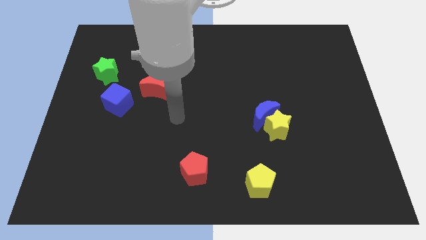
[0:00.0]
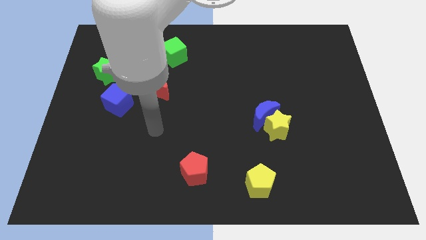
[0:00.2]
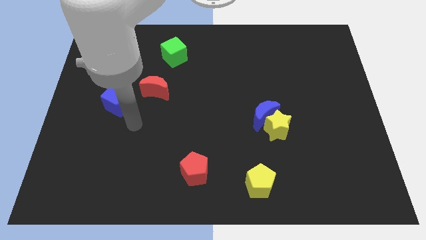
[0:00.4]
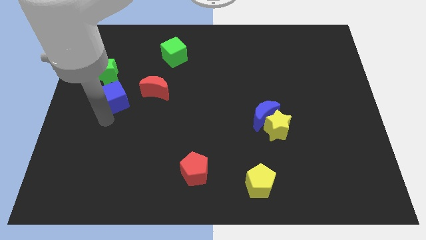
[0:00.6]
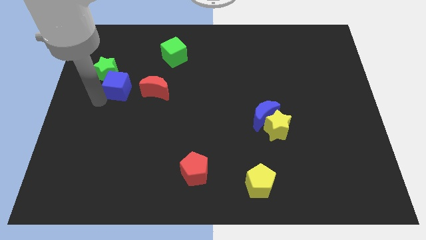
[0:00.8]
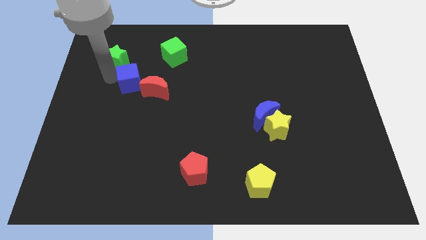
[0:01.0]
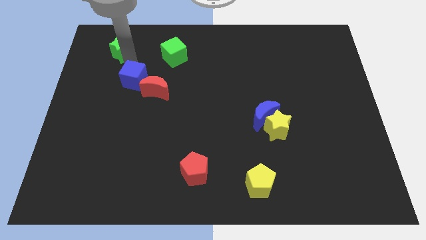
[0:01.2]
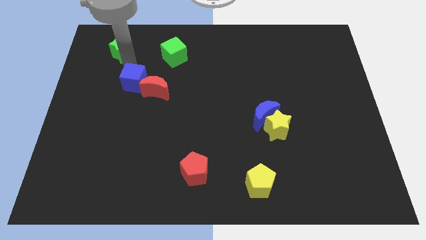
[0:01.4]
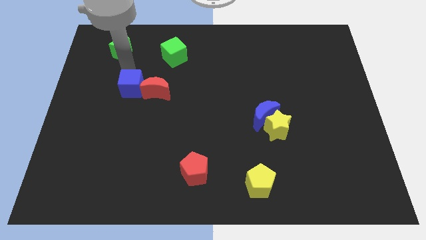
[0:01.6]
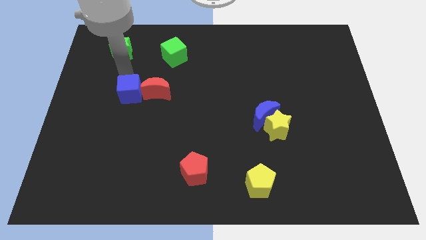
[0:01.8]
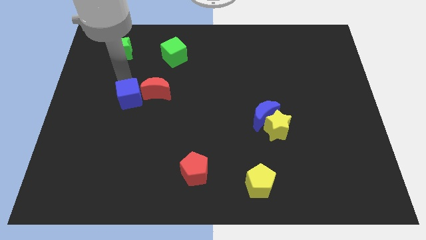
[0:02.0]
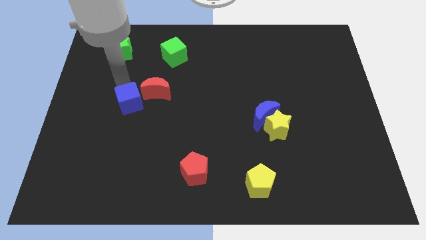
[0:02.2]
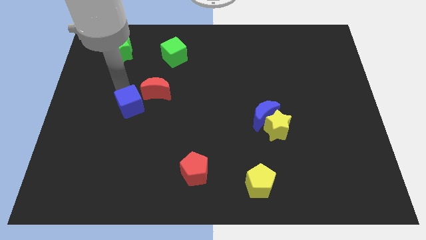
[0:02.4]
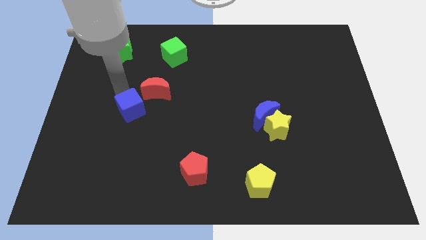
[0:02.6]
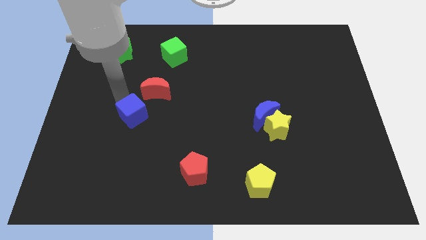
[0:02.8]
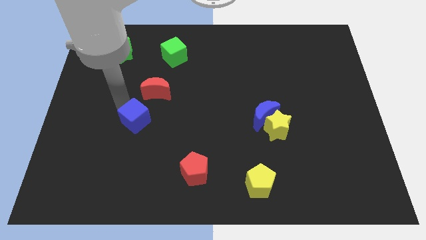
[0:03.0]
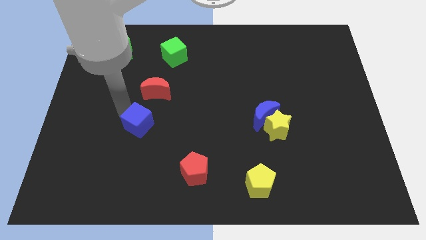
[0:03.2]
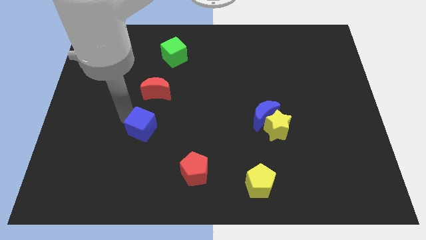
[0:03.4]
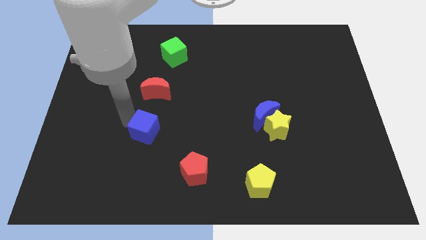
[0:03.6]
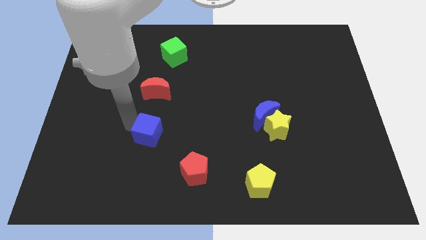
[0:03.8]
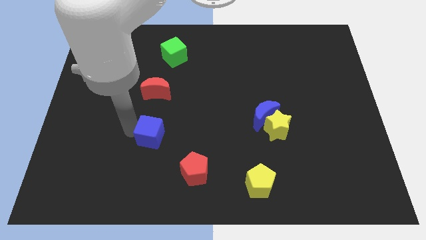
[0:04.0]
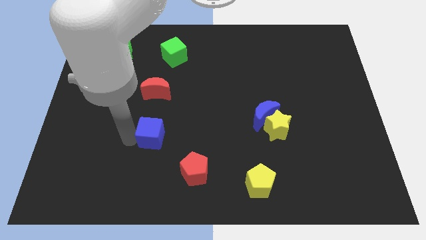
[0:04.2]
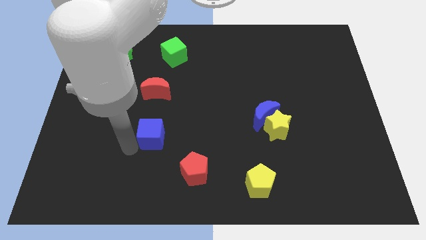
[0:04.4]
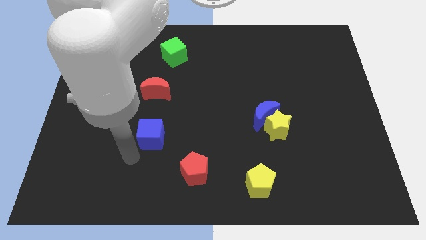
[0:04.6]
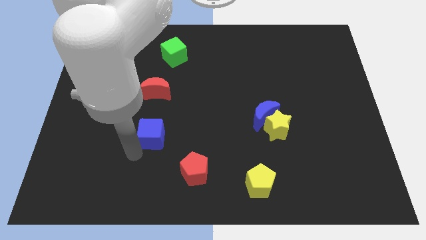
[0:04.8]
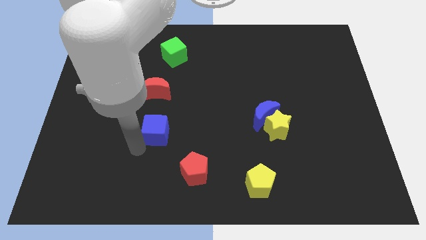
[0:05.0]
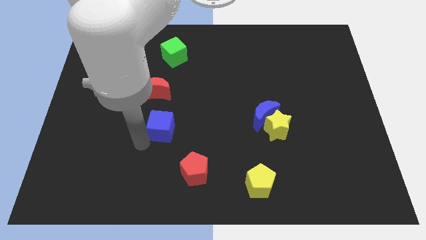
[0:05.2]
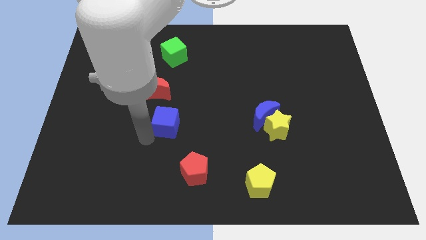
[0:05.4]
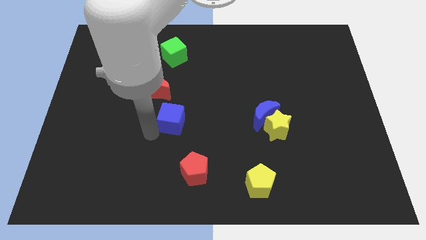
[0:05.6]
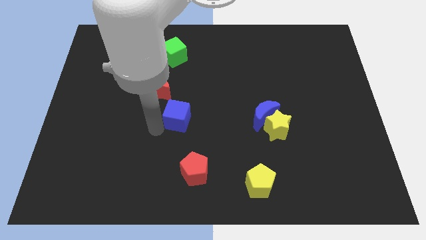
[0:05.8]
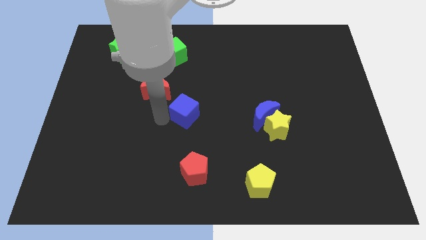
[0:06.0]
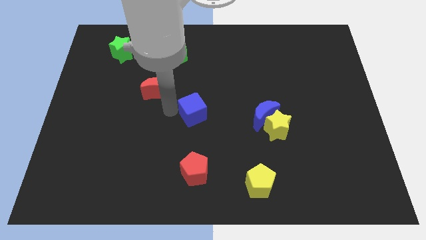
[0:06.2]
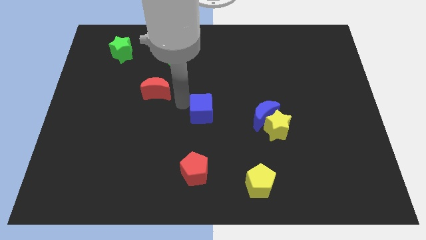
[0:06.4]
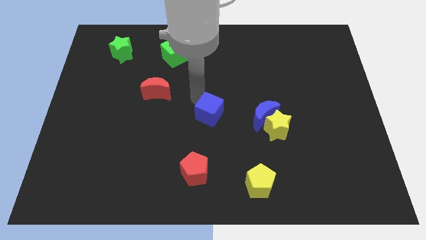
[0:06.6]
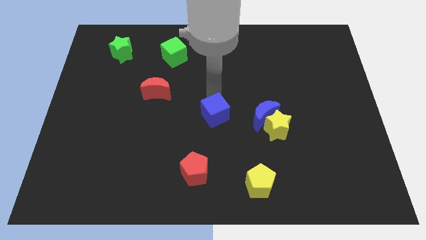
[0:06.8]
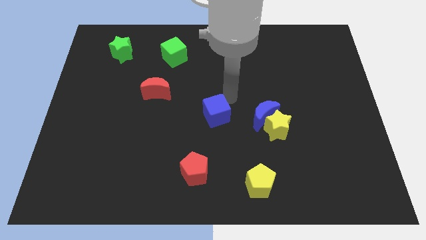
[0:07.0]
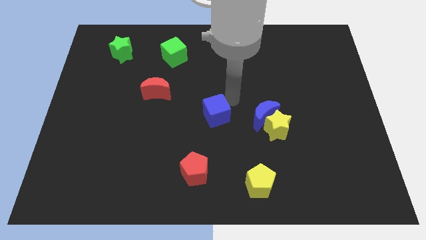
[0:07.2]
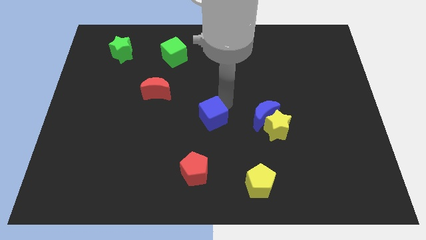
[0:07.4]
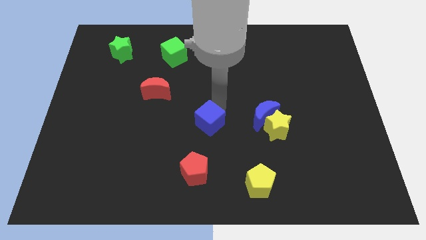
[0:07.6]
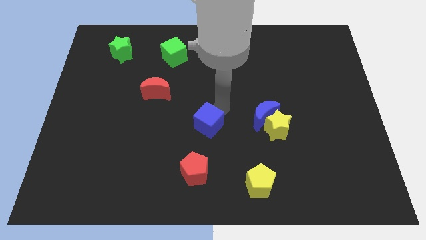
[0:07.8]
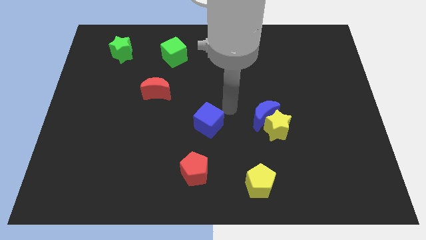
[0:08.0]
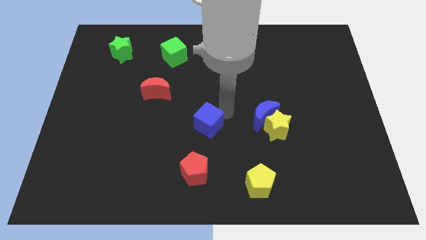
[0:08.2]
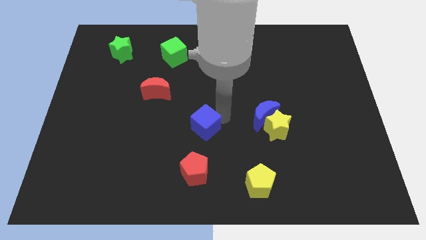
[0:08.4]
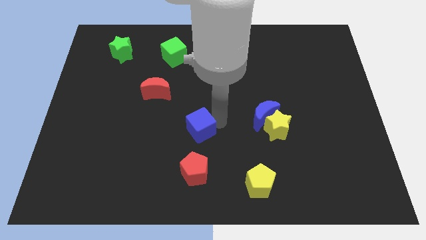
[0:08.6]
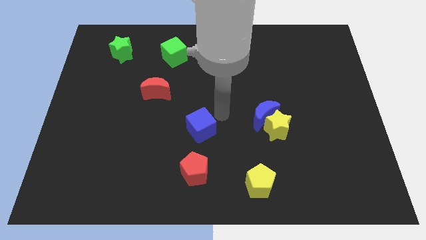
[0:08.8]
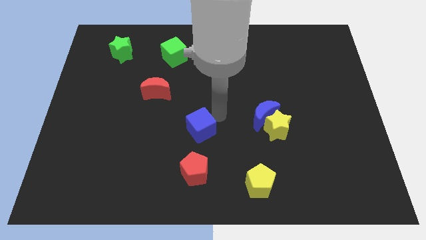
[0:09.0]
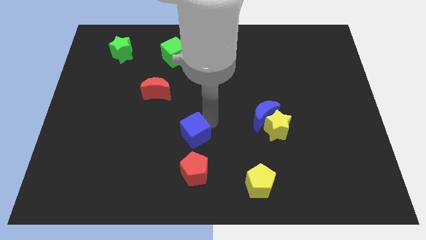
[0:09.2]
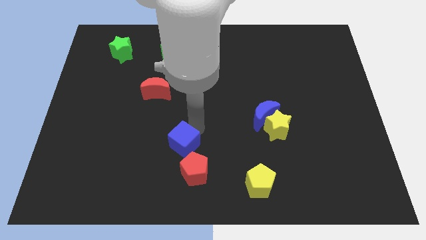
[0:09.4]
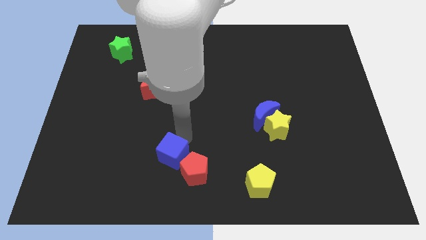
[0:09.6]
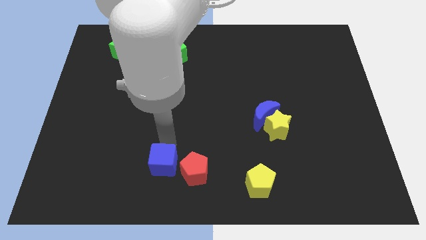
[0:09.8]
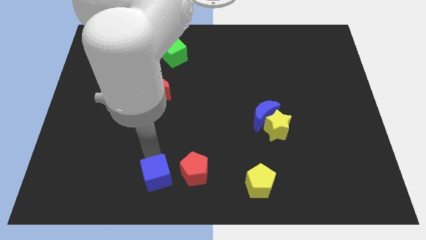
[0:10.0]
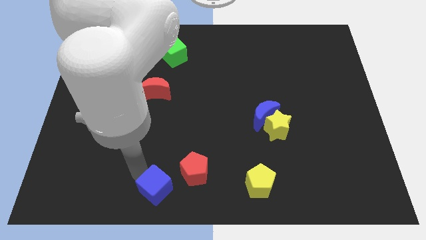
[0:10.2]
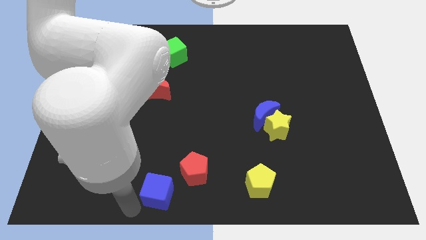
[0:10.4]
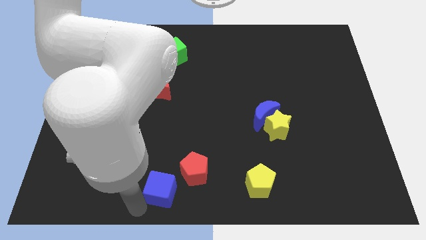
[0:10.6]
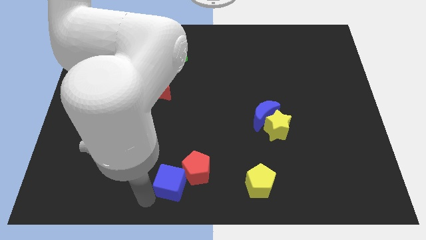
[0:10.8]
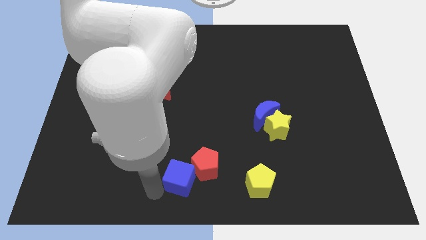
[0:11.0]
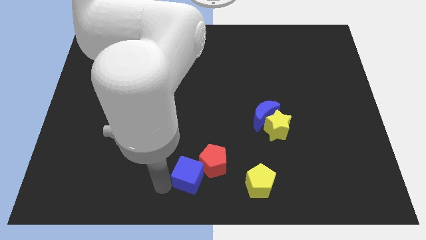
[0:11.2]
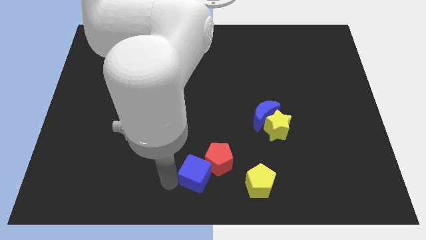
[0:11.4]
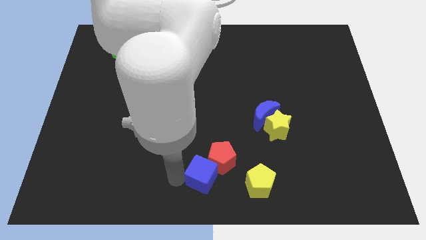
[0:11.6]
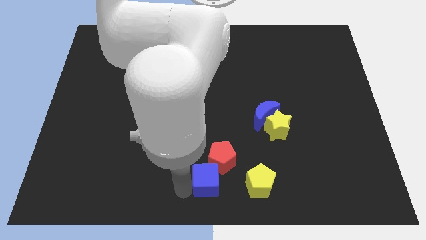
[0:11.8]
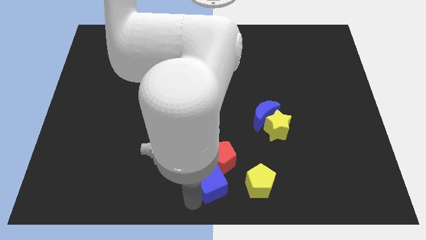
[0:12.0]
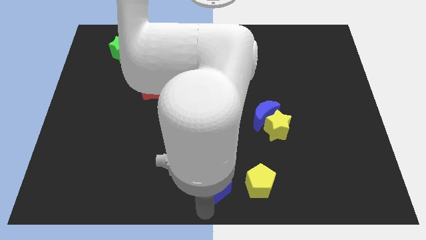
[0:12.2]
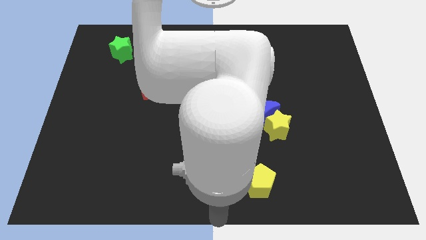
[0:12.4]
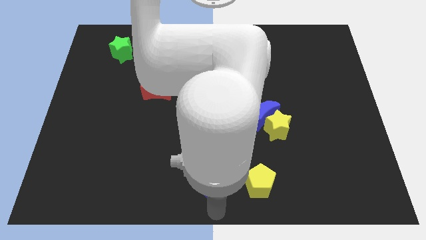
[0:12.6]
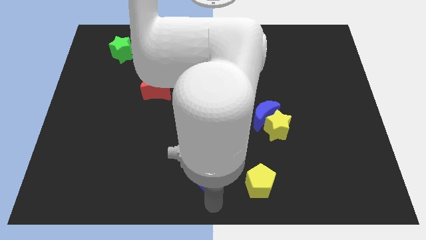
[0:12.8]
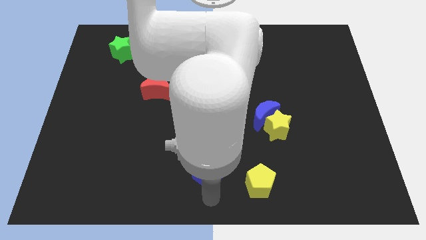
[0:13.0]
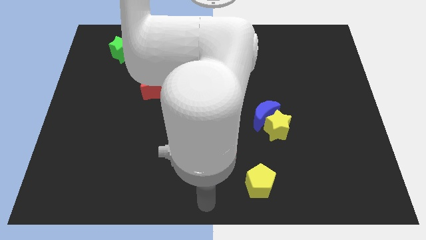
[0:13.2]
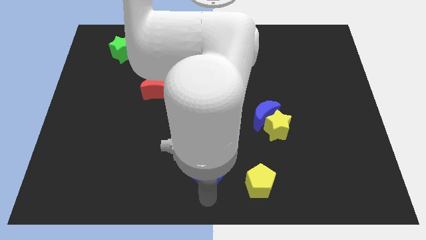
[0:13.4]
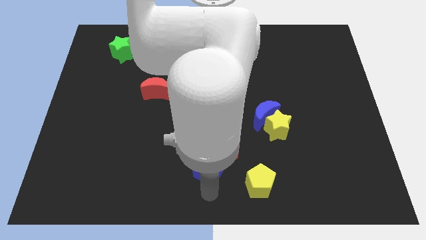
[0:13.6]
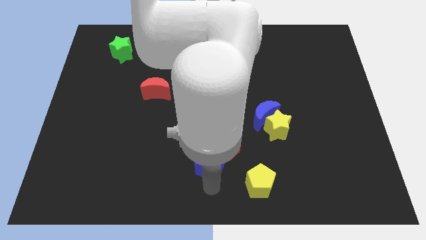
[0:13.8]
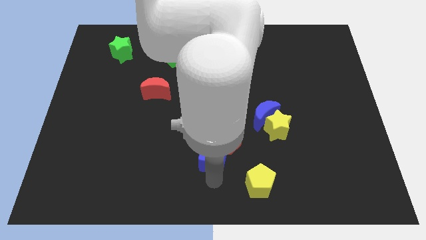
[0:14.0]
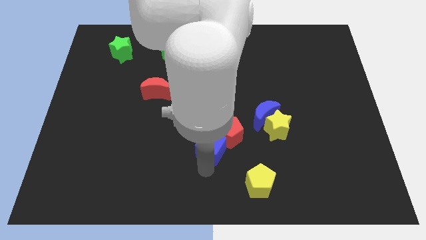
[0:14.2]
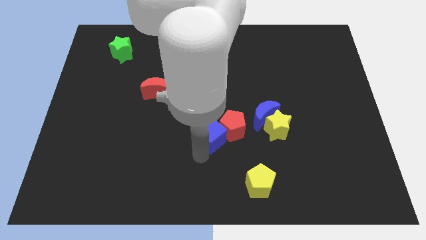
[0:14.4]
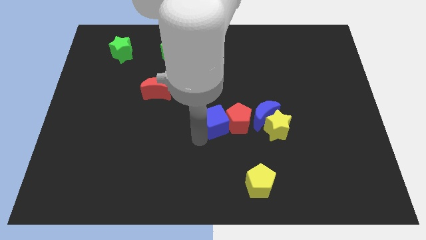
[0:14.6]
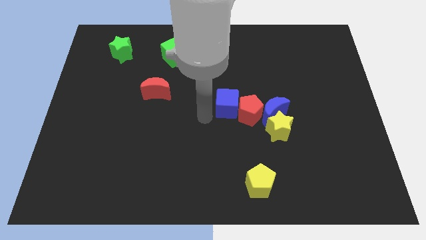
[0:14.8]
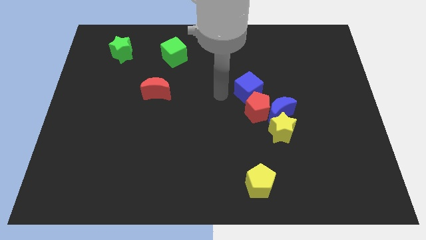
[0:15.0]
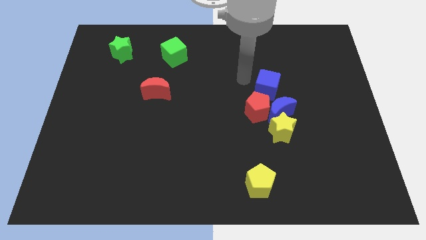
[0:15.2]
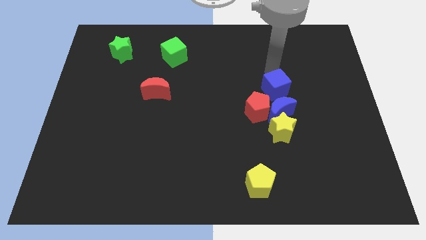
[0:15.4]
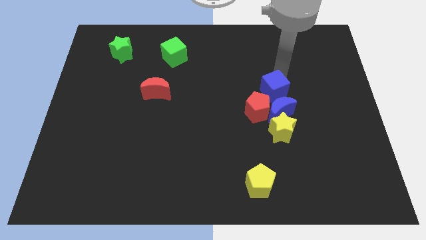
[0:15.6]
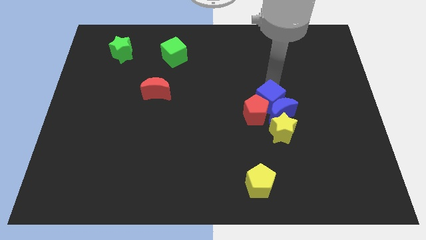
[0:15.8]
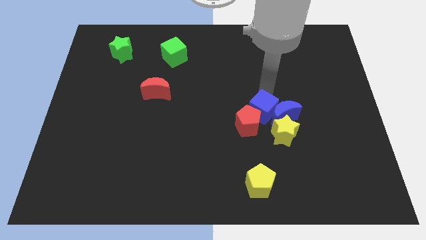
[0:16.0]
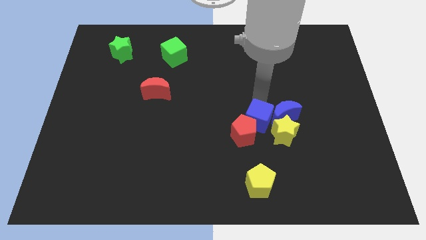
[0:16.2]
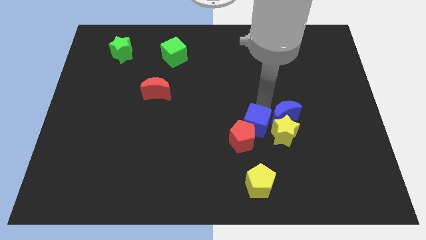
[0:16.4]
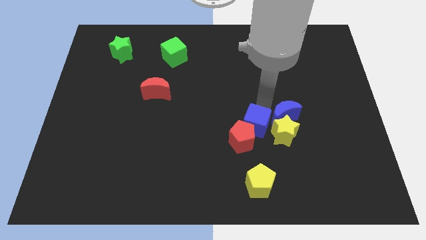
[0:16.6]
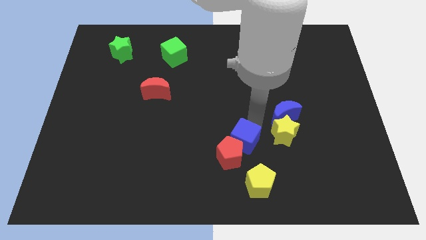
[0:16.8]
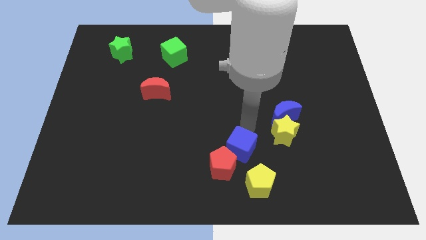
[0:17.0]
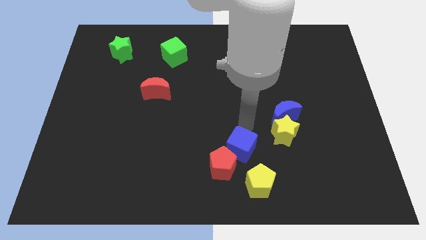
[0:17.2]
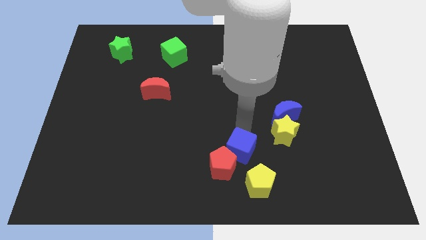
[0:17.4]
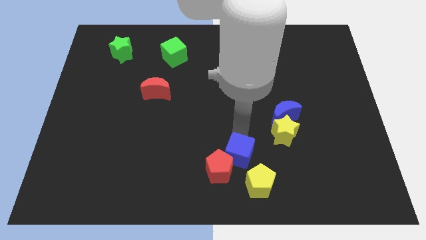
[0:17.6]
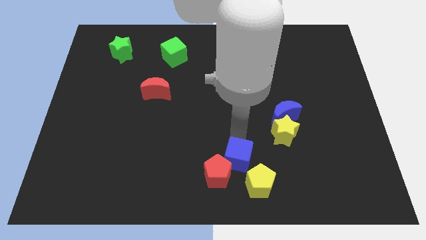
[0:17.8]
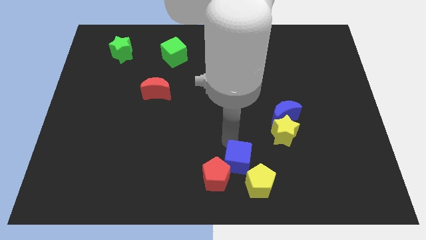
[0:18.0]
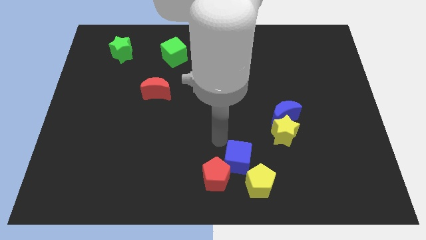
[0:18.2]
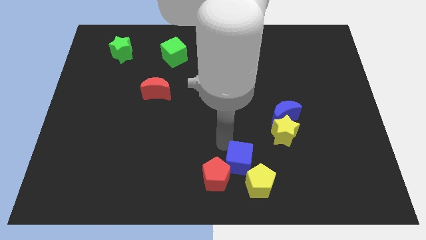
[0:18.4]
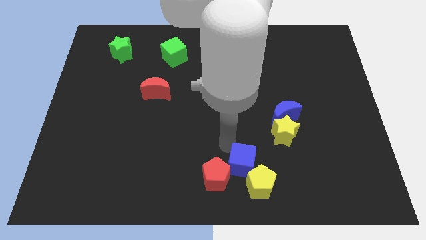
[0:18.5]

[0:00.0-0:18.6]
slide the blue cube next to the yellow pentagon
